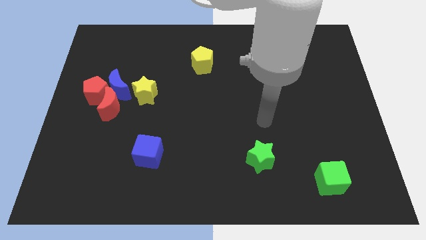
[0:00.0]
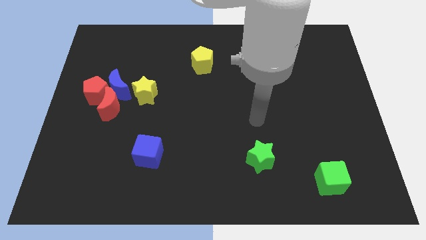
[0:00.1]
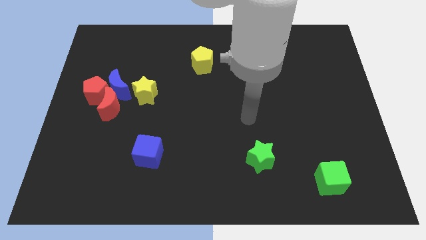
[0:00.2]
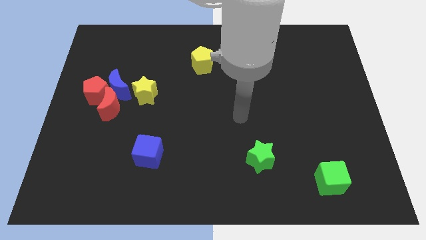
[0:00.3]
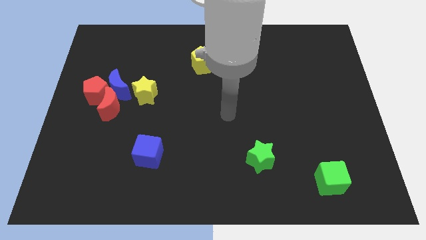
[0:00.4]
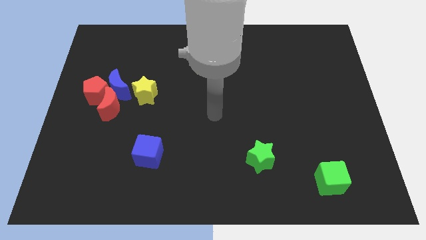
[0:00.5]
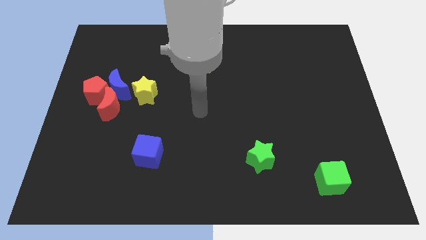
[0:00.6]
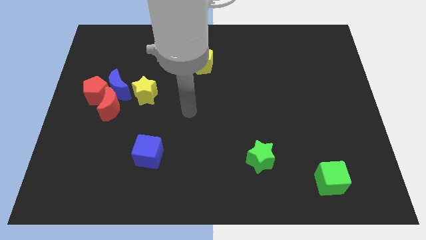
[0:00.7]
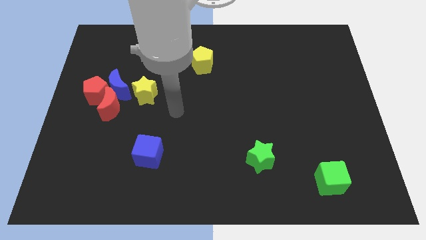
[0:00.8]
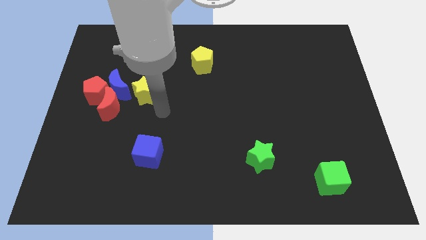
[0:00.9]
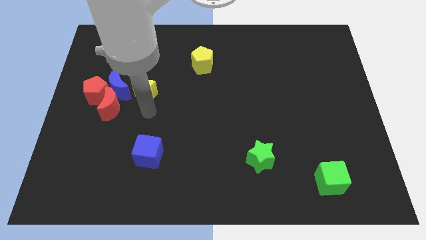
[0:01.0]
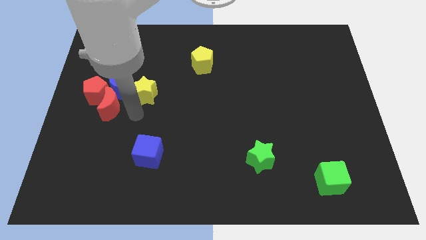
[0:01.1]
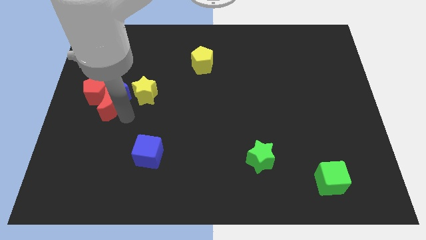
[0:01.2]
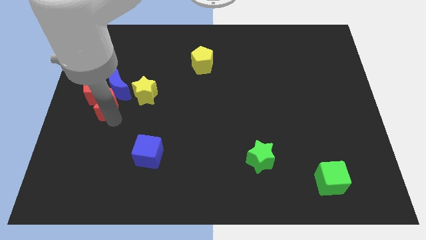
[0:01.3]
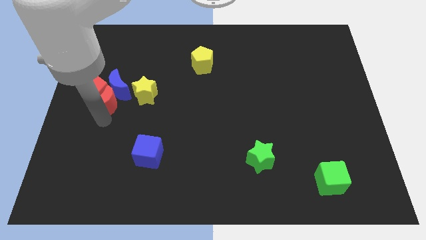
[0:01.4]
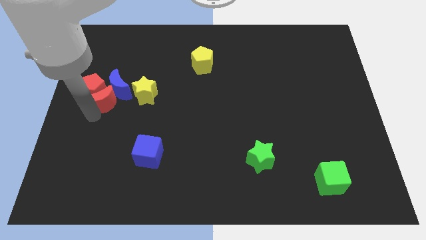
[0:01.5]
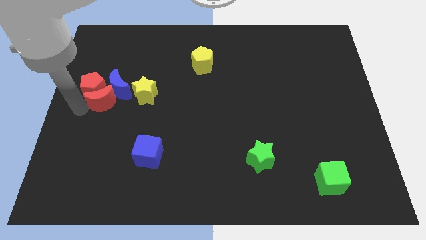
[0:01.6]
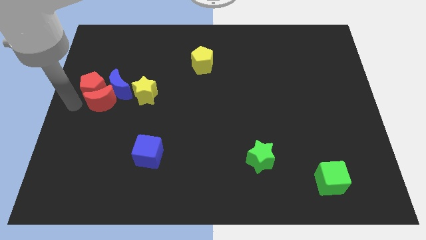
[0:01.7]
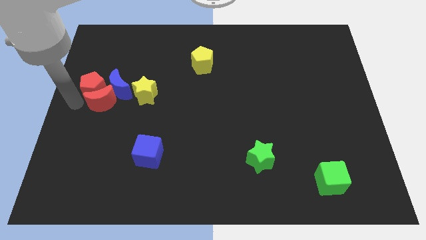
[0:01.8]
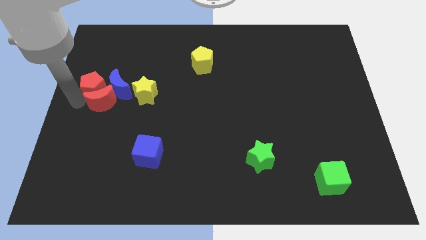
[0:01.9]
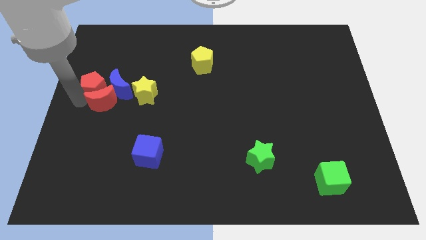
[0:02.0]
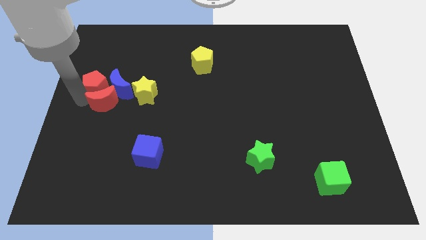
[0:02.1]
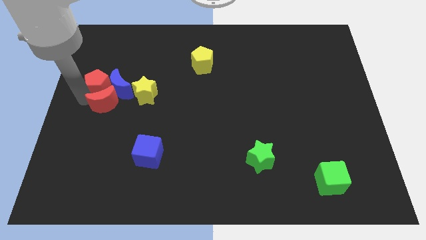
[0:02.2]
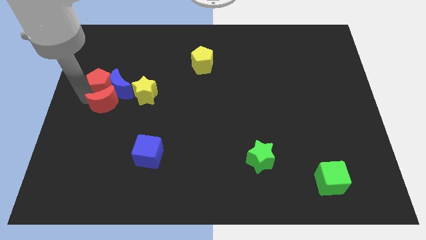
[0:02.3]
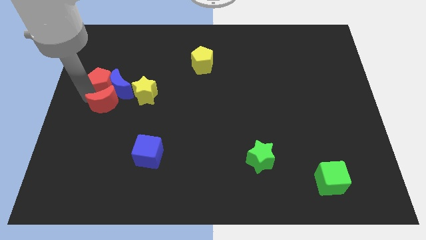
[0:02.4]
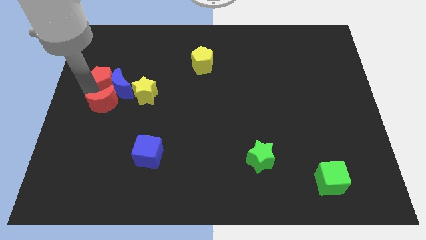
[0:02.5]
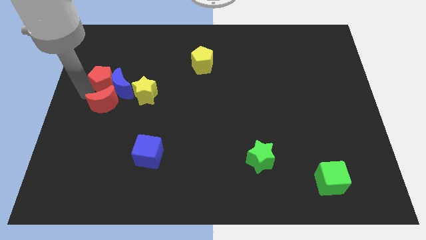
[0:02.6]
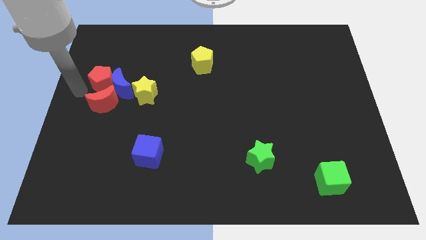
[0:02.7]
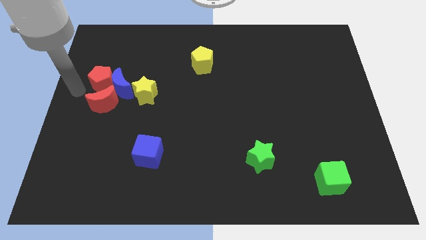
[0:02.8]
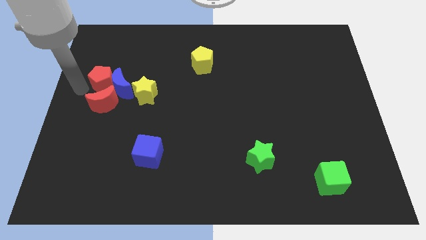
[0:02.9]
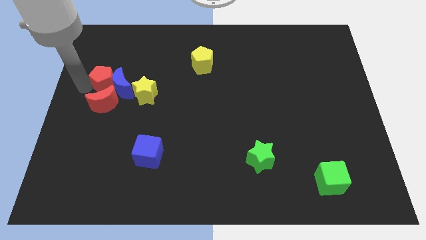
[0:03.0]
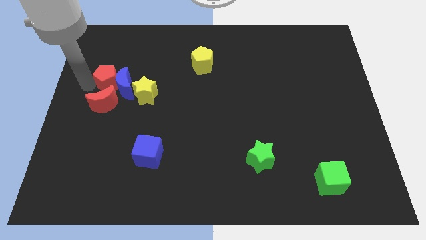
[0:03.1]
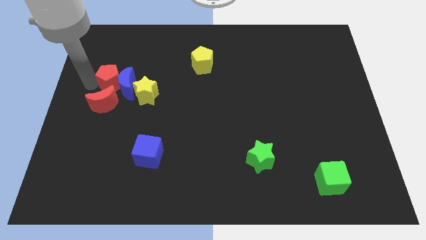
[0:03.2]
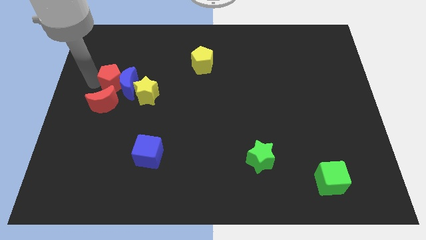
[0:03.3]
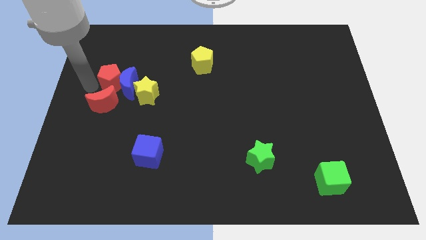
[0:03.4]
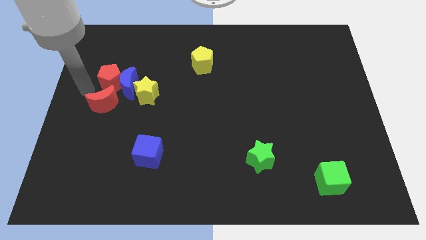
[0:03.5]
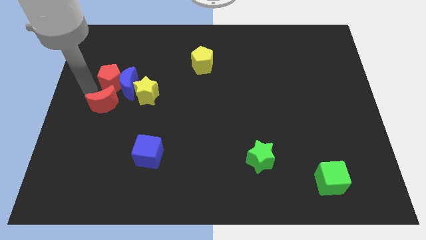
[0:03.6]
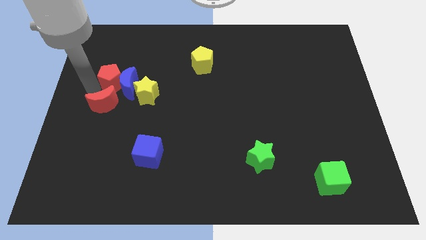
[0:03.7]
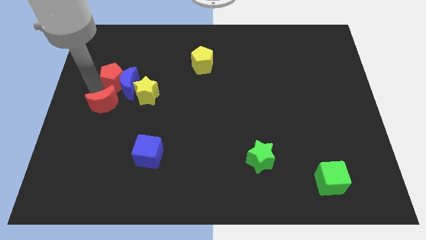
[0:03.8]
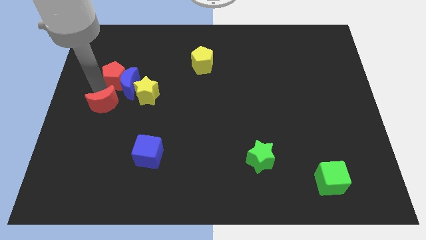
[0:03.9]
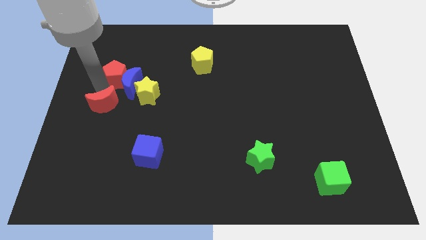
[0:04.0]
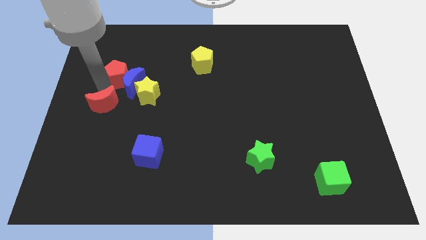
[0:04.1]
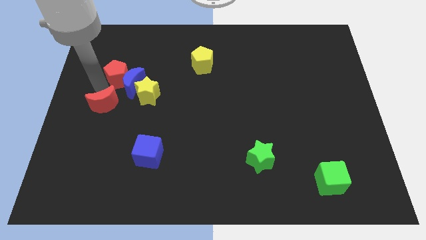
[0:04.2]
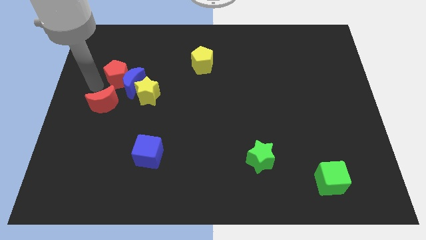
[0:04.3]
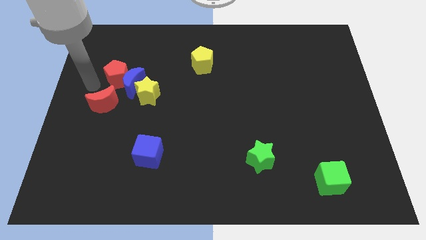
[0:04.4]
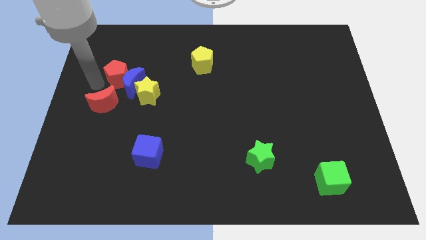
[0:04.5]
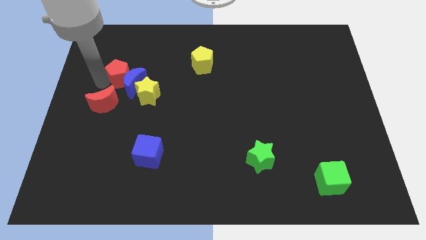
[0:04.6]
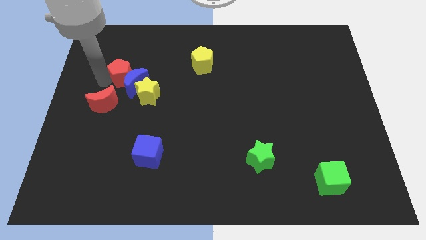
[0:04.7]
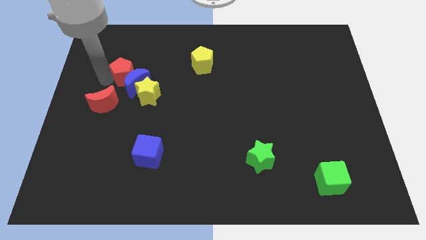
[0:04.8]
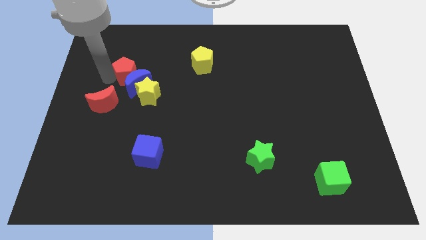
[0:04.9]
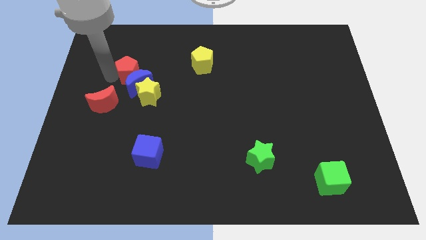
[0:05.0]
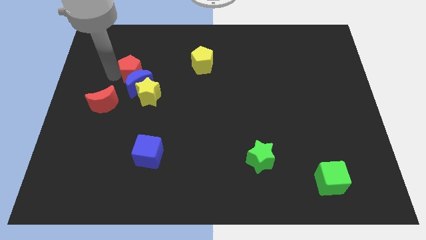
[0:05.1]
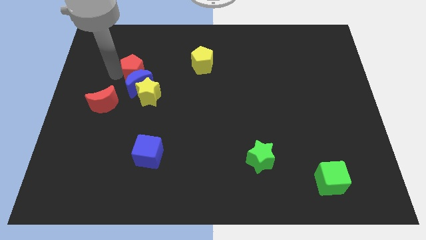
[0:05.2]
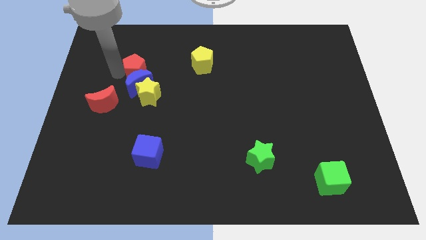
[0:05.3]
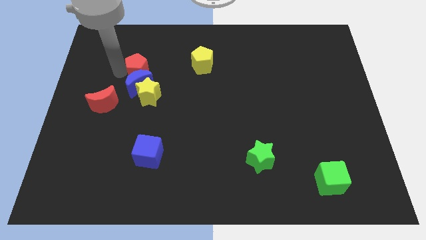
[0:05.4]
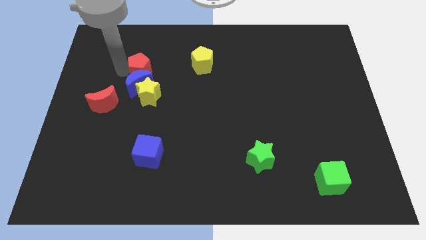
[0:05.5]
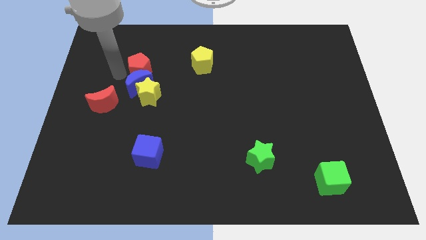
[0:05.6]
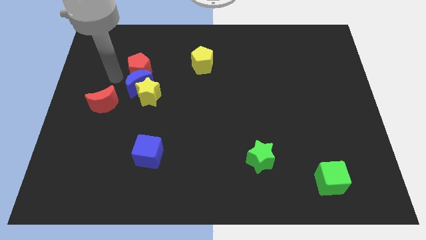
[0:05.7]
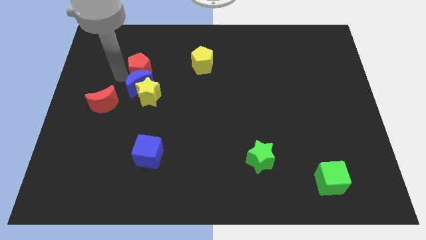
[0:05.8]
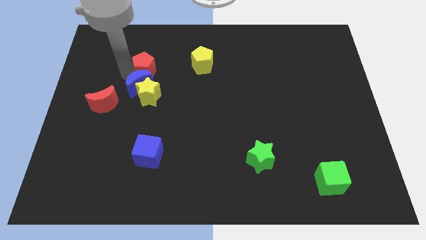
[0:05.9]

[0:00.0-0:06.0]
move the red pentagon to the left of the yellow pentagon

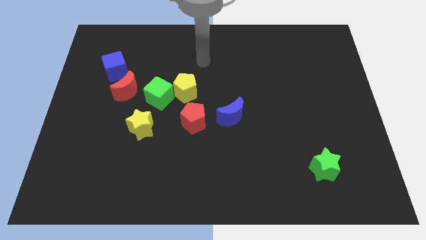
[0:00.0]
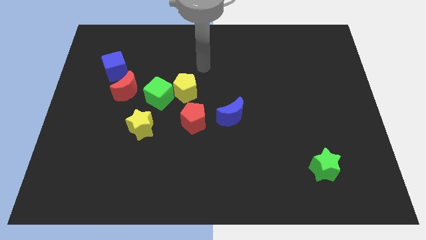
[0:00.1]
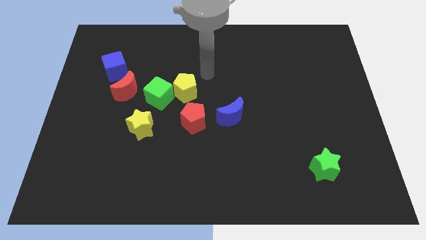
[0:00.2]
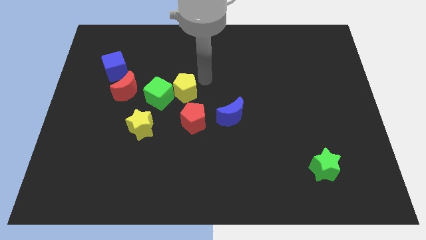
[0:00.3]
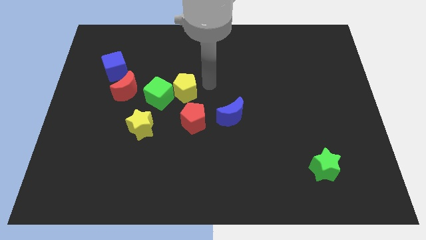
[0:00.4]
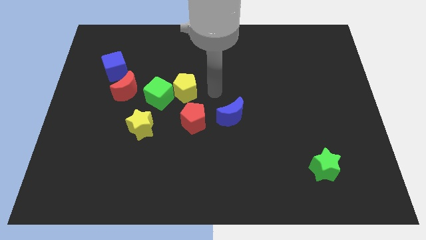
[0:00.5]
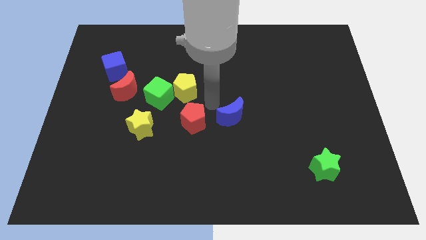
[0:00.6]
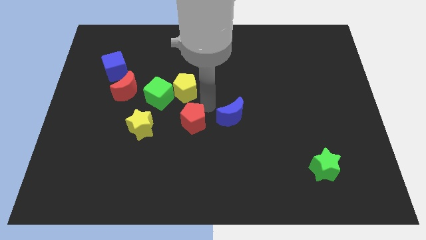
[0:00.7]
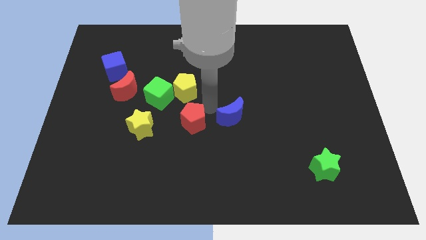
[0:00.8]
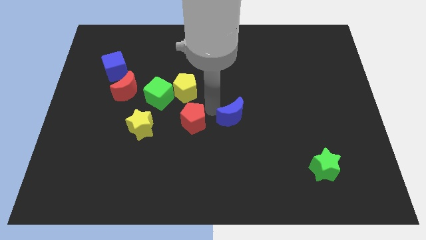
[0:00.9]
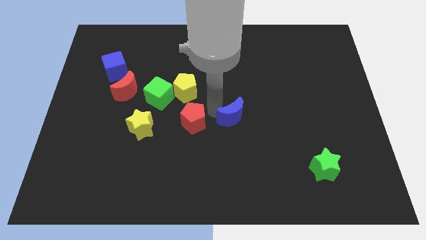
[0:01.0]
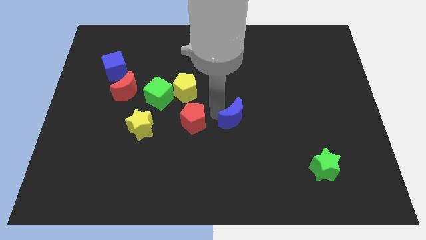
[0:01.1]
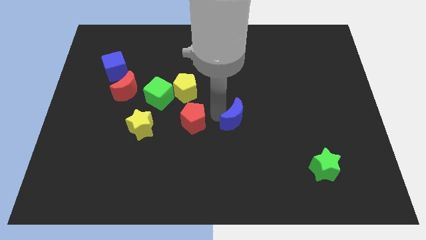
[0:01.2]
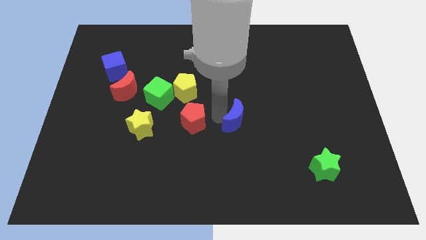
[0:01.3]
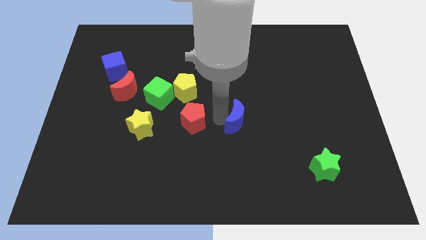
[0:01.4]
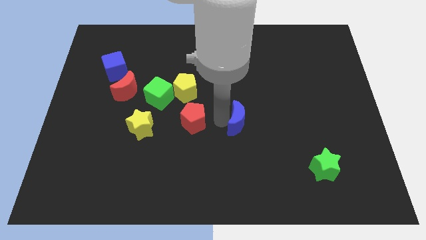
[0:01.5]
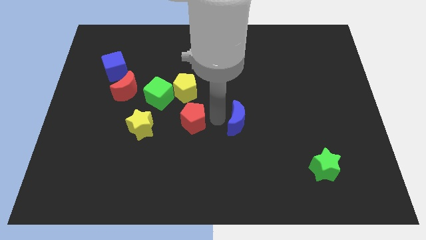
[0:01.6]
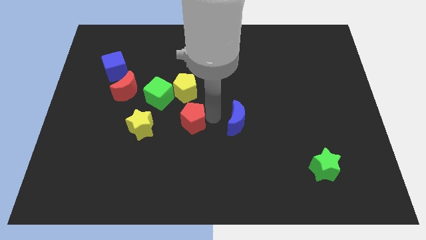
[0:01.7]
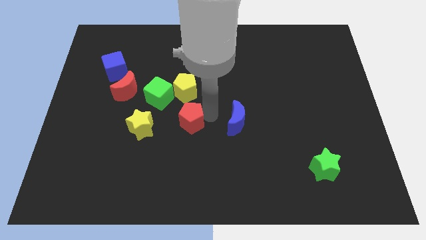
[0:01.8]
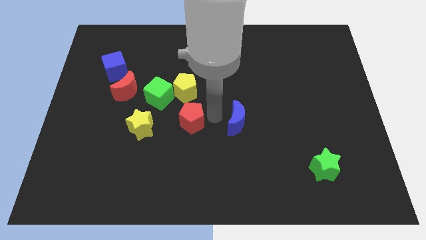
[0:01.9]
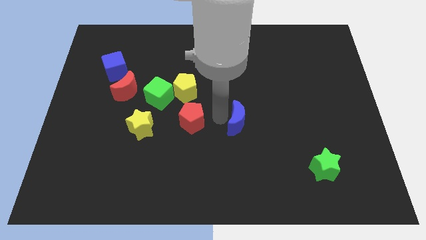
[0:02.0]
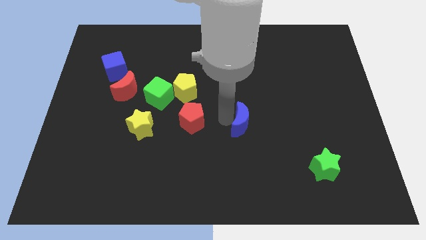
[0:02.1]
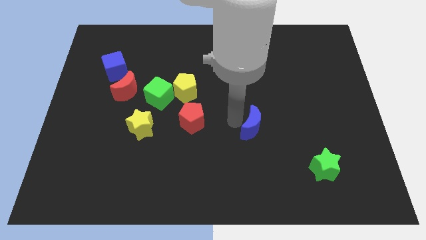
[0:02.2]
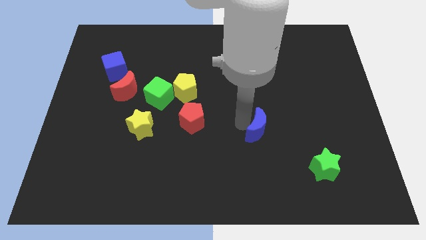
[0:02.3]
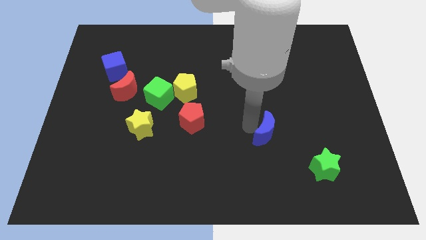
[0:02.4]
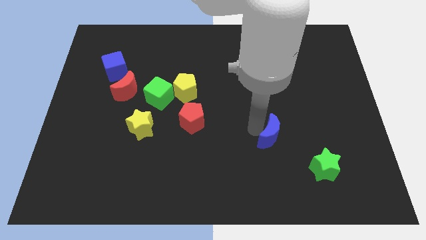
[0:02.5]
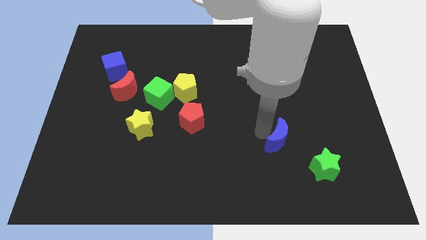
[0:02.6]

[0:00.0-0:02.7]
push the blue moon to the top left side of the green star
